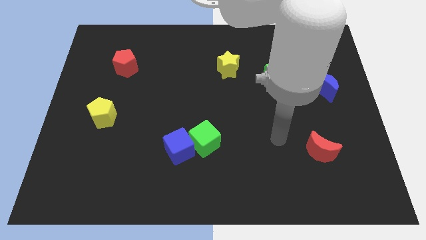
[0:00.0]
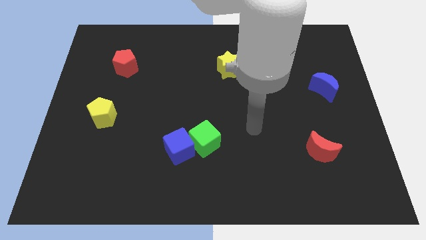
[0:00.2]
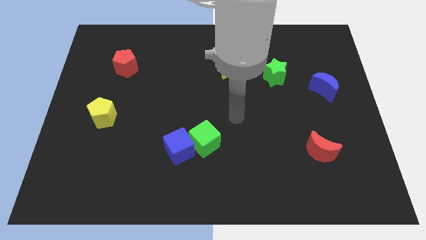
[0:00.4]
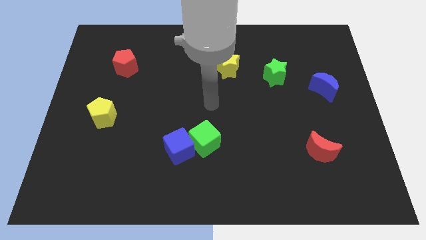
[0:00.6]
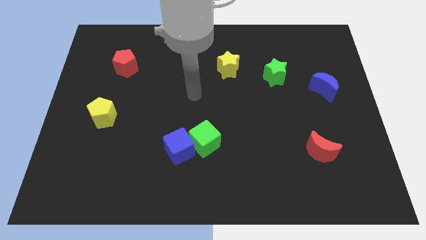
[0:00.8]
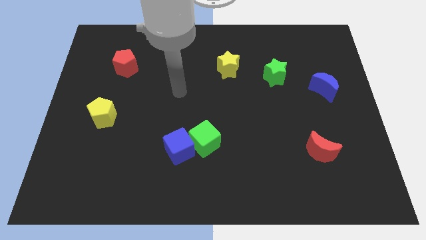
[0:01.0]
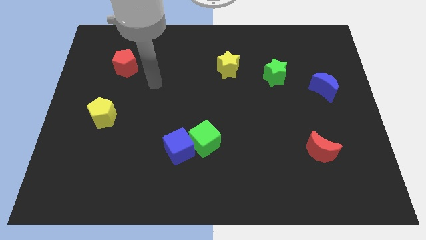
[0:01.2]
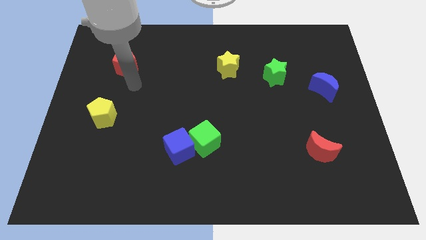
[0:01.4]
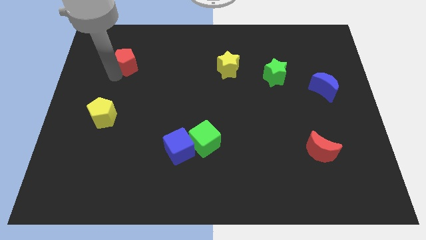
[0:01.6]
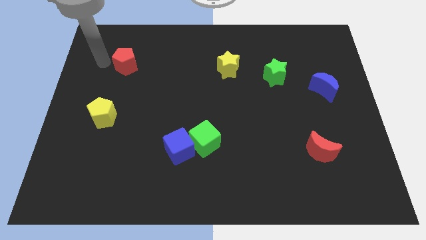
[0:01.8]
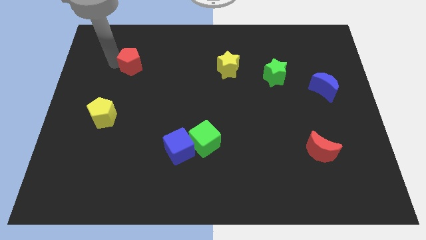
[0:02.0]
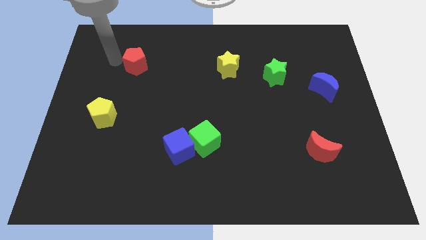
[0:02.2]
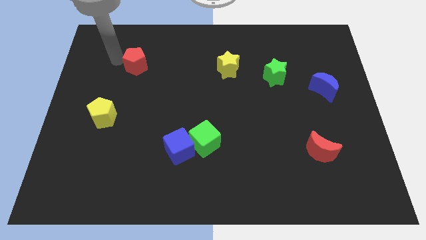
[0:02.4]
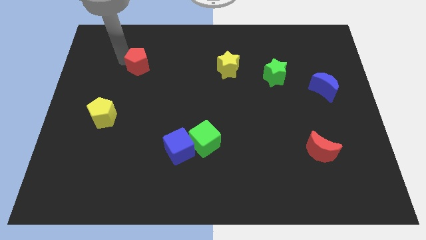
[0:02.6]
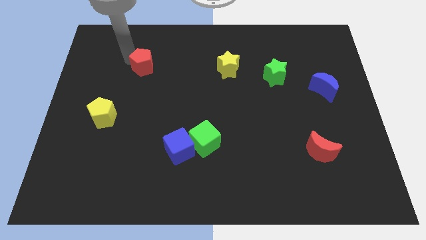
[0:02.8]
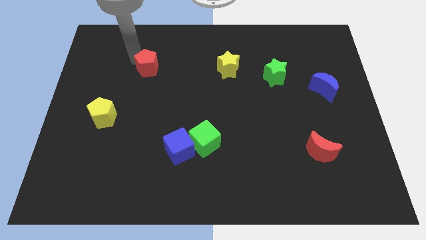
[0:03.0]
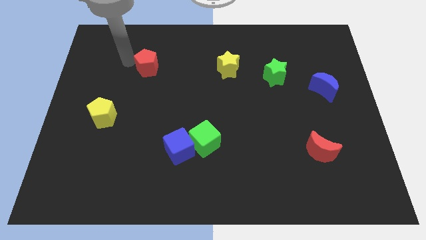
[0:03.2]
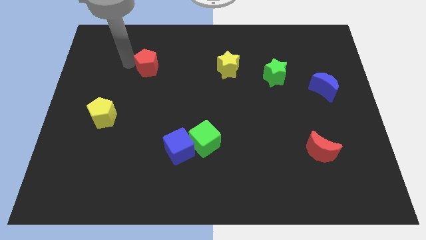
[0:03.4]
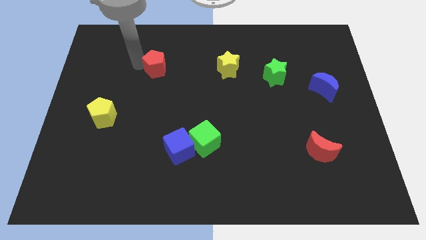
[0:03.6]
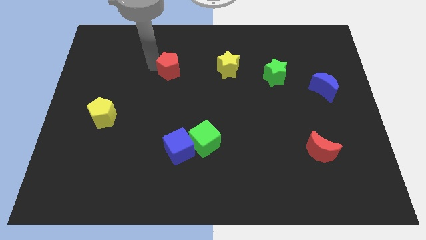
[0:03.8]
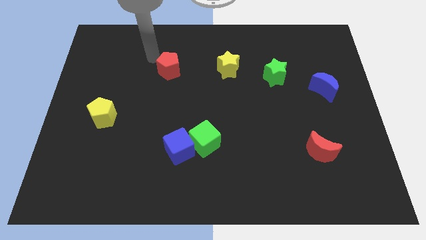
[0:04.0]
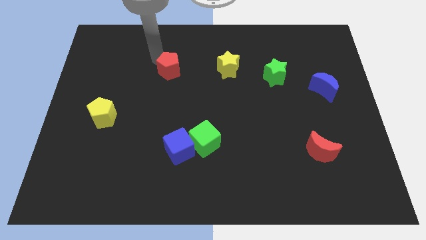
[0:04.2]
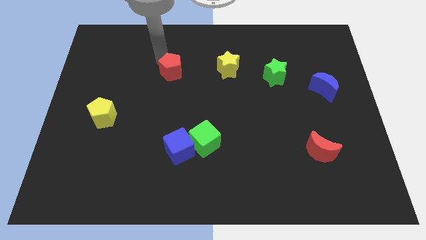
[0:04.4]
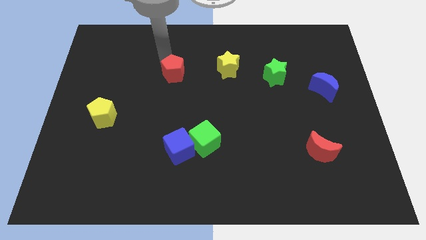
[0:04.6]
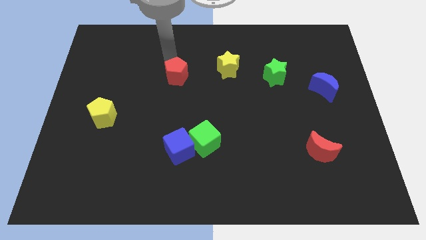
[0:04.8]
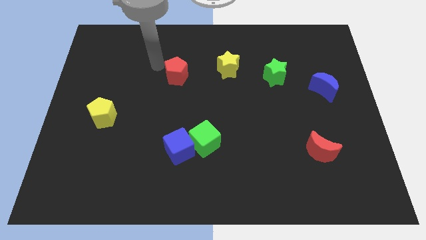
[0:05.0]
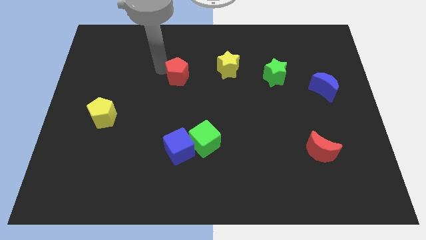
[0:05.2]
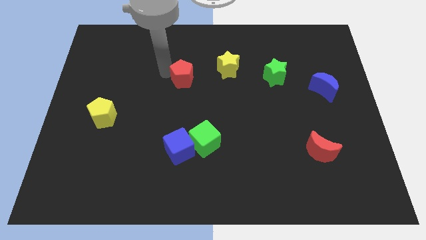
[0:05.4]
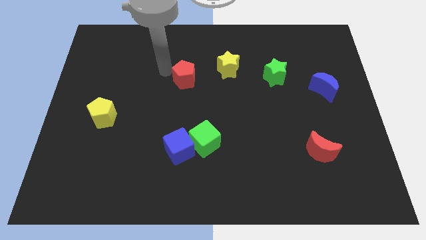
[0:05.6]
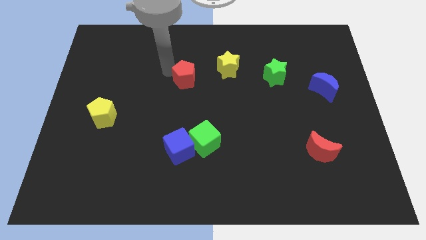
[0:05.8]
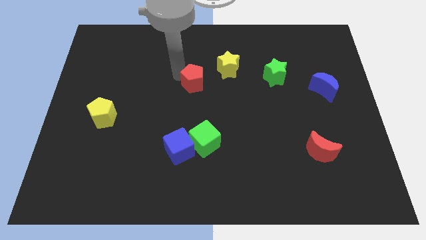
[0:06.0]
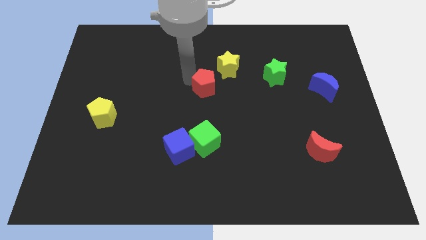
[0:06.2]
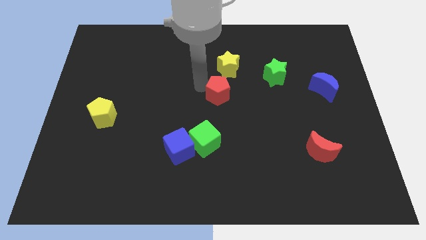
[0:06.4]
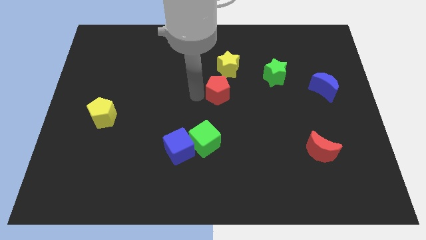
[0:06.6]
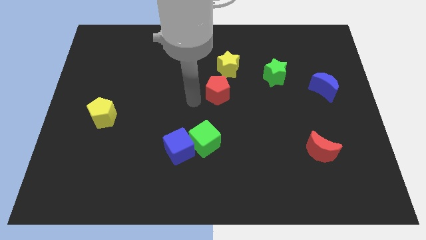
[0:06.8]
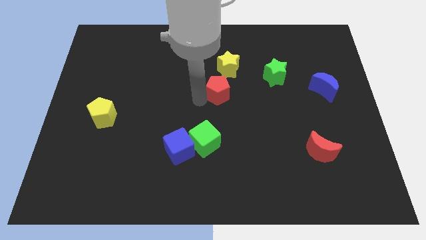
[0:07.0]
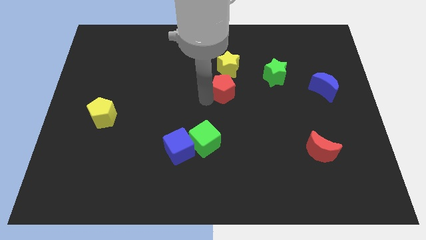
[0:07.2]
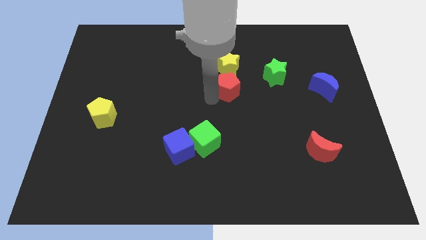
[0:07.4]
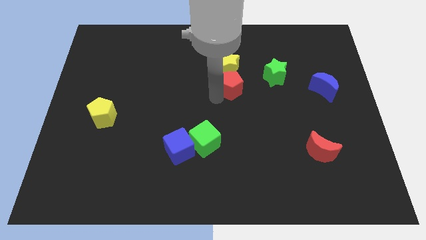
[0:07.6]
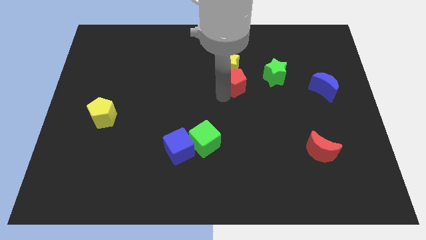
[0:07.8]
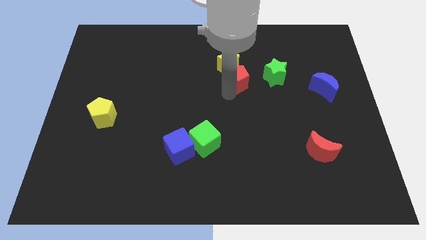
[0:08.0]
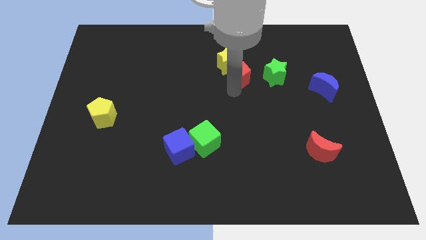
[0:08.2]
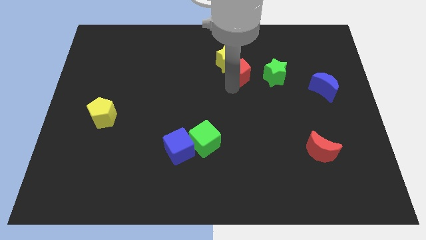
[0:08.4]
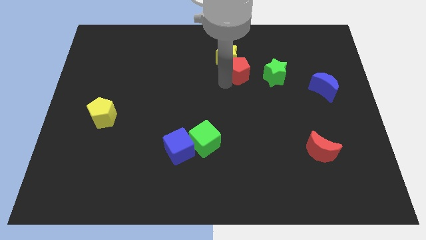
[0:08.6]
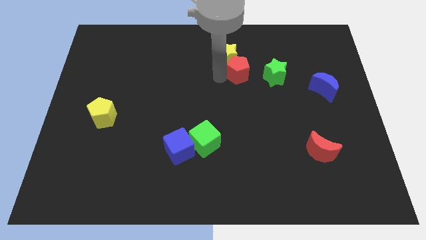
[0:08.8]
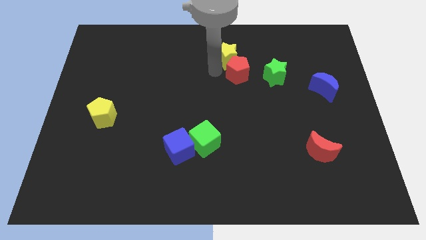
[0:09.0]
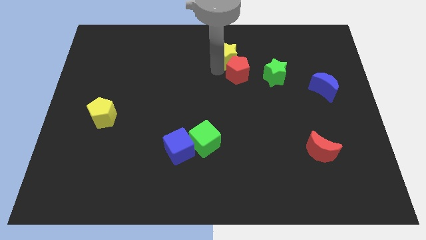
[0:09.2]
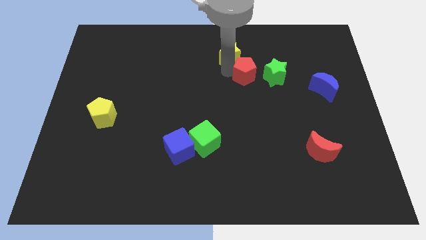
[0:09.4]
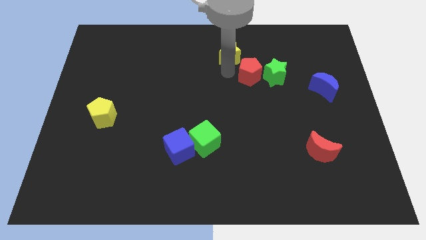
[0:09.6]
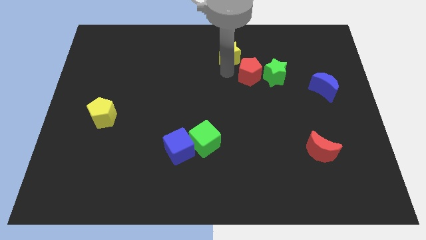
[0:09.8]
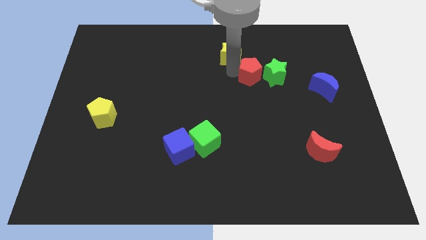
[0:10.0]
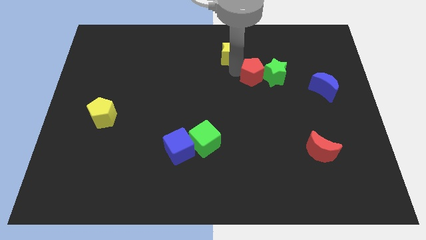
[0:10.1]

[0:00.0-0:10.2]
slide the red pentagon towards the green star

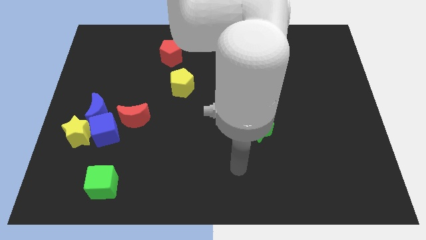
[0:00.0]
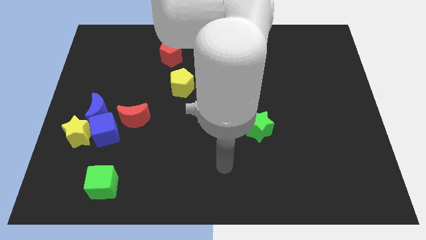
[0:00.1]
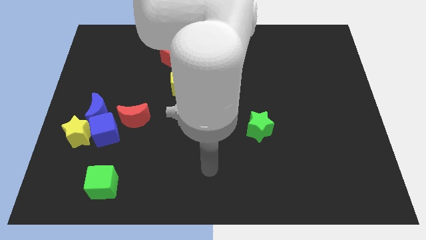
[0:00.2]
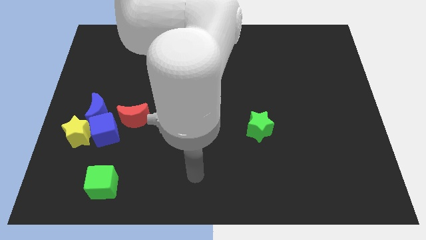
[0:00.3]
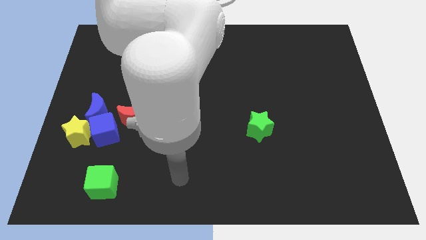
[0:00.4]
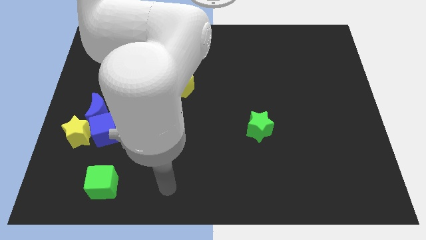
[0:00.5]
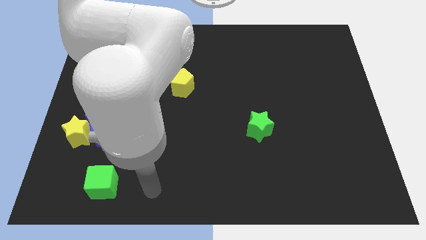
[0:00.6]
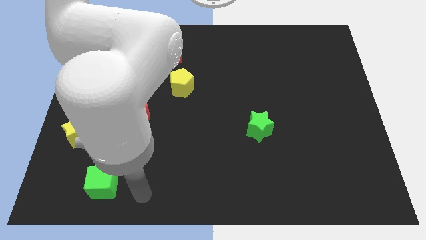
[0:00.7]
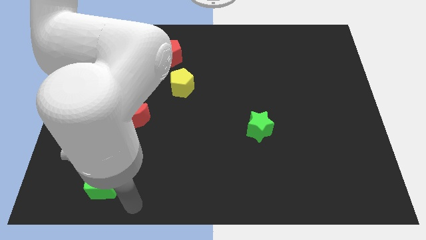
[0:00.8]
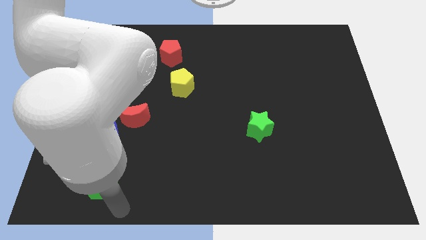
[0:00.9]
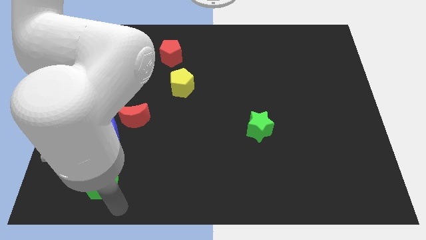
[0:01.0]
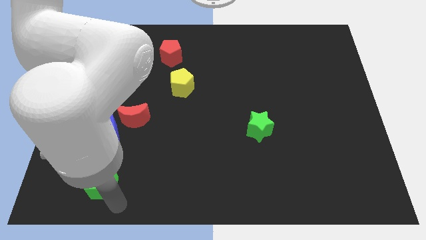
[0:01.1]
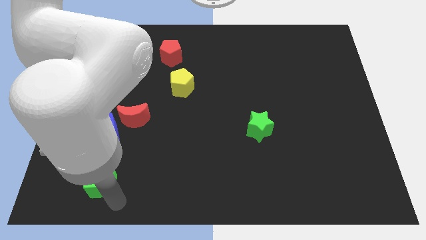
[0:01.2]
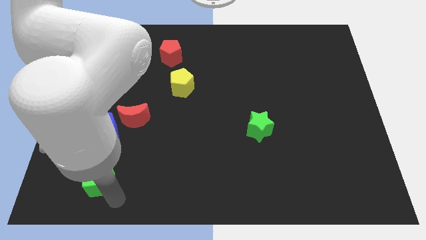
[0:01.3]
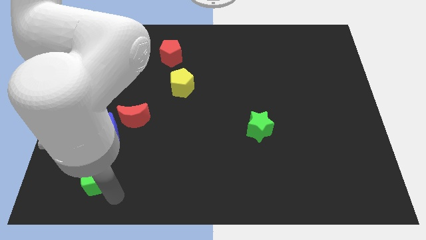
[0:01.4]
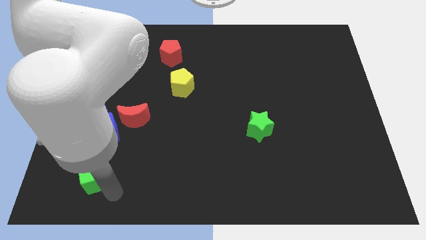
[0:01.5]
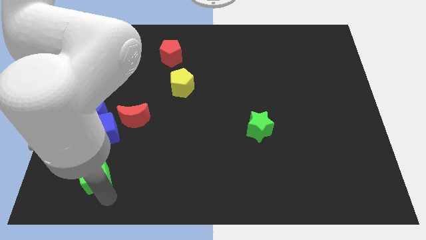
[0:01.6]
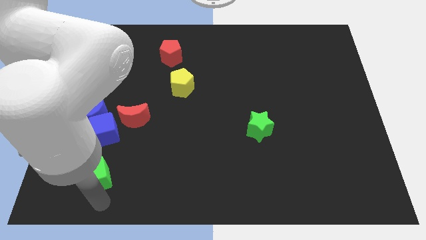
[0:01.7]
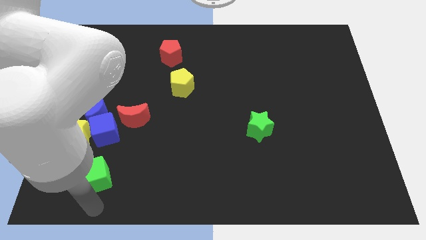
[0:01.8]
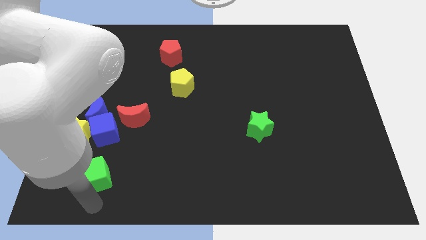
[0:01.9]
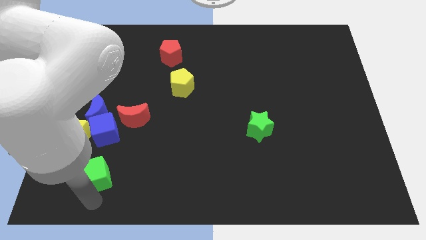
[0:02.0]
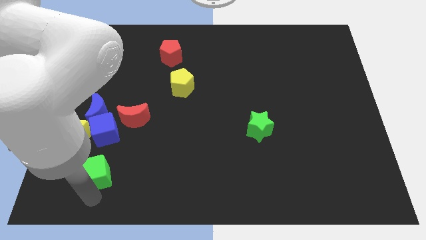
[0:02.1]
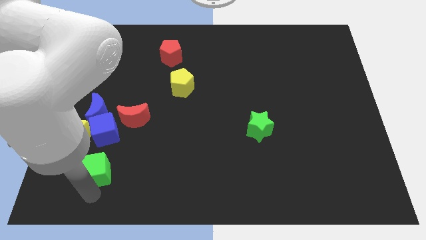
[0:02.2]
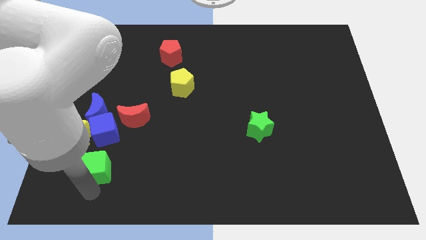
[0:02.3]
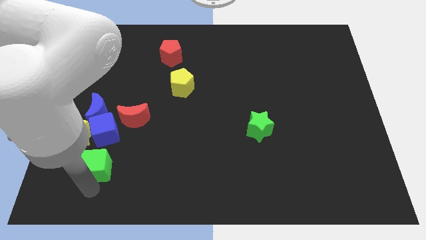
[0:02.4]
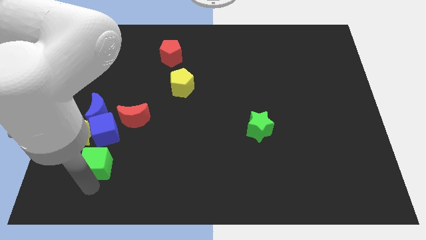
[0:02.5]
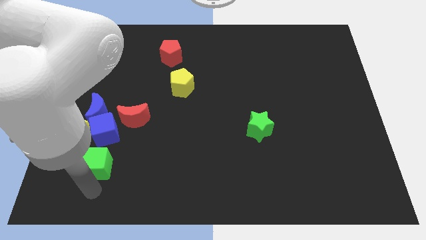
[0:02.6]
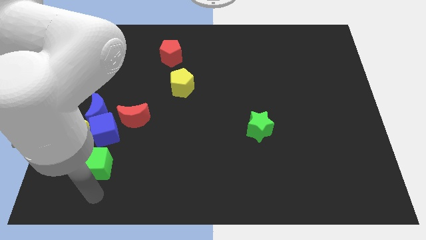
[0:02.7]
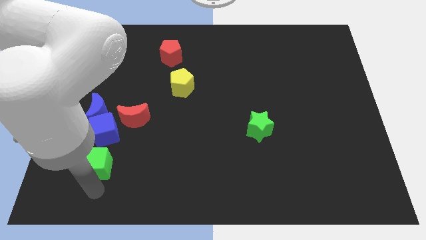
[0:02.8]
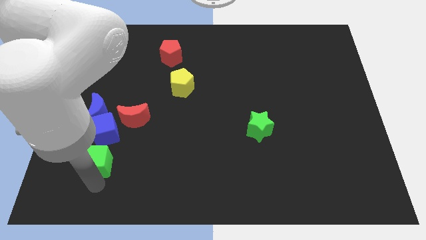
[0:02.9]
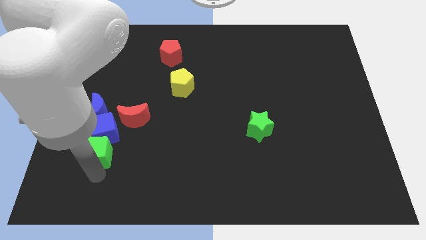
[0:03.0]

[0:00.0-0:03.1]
put the green cube close to the blue cube
